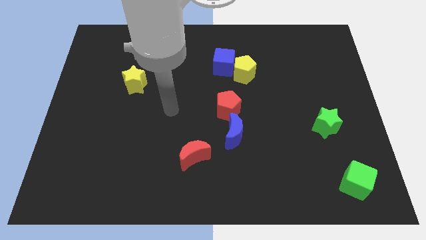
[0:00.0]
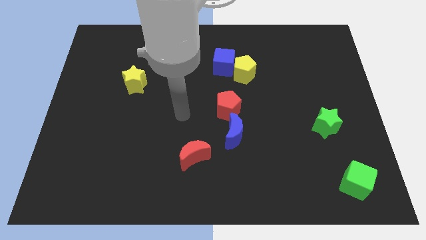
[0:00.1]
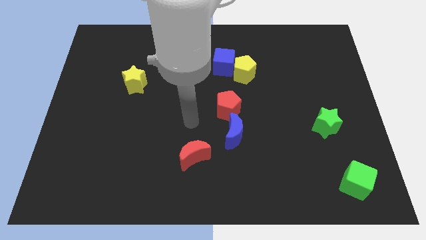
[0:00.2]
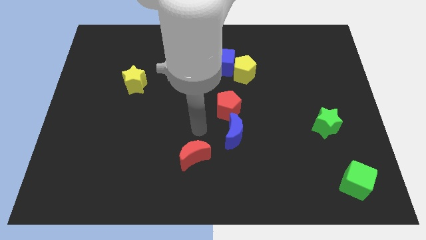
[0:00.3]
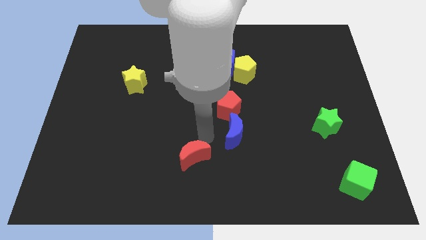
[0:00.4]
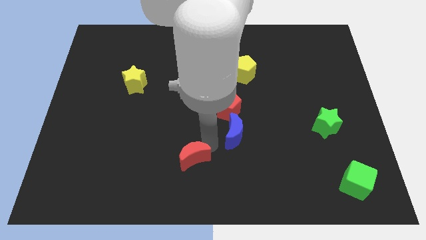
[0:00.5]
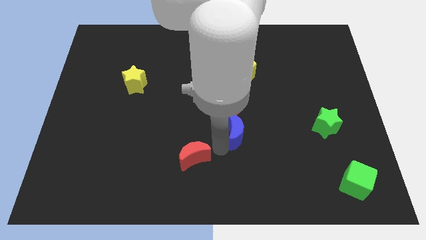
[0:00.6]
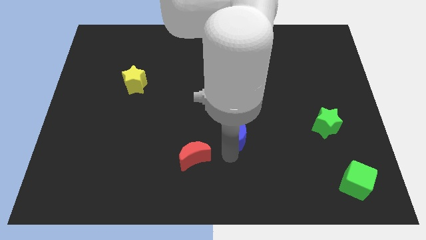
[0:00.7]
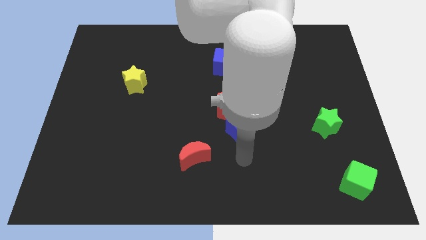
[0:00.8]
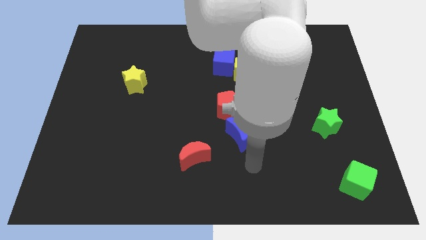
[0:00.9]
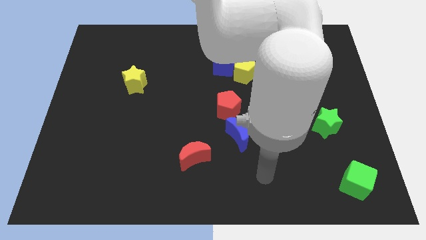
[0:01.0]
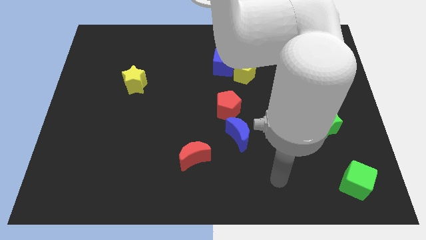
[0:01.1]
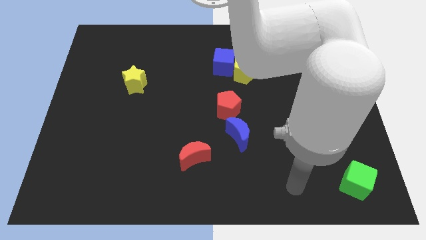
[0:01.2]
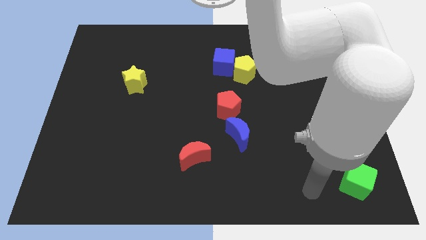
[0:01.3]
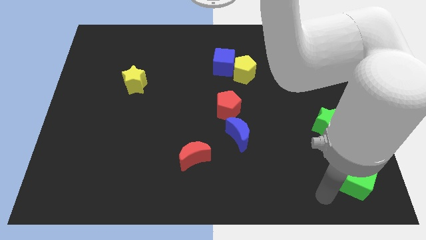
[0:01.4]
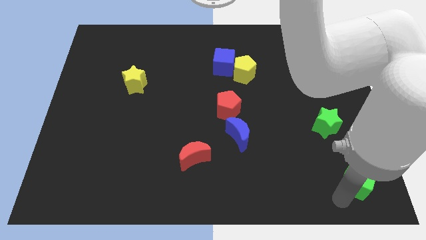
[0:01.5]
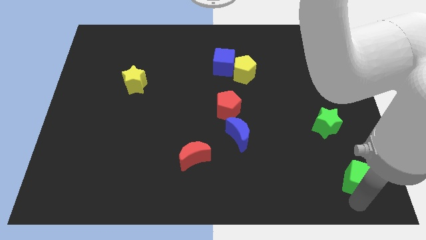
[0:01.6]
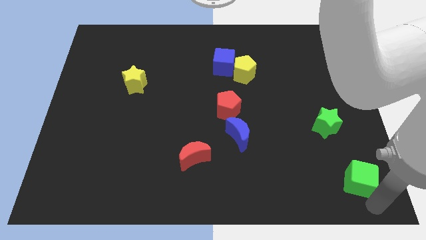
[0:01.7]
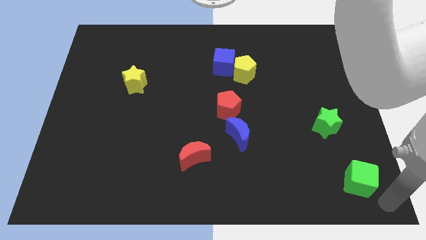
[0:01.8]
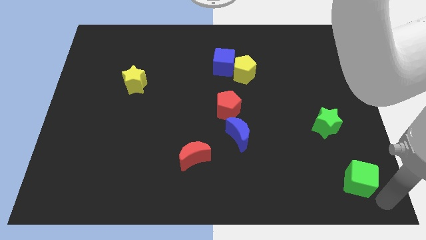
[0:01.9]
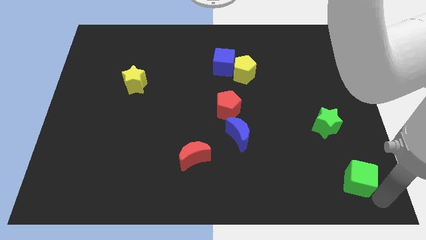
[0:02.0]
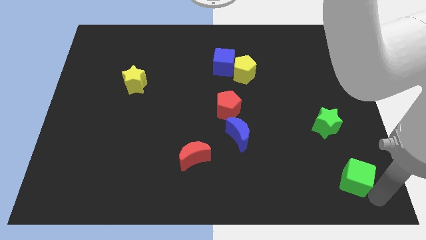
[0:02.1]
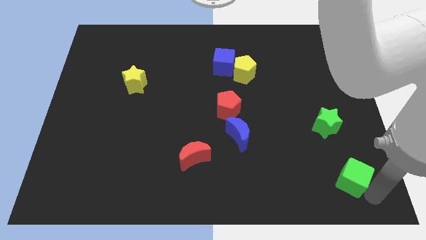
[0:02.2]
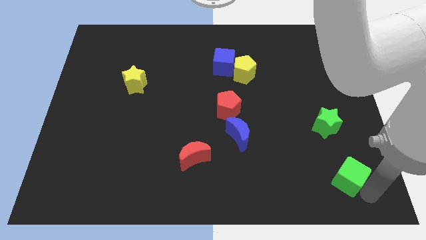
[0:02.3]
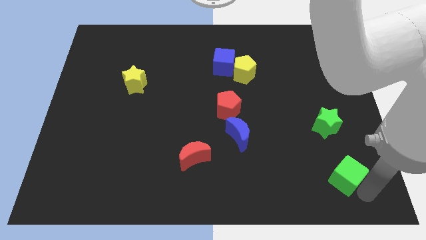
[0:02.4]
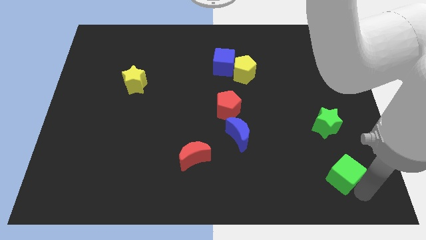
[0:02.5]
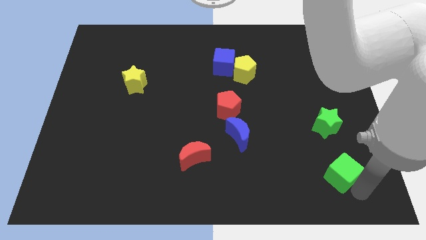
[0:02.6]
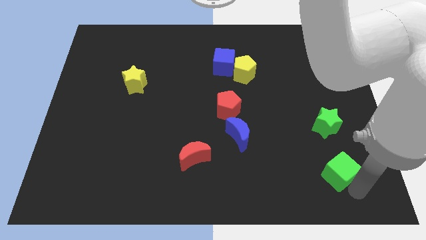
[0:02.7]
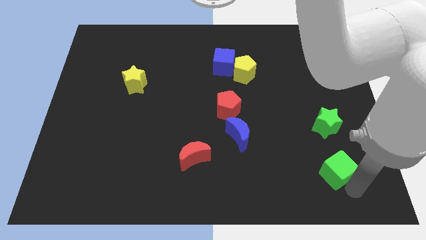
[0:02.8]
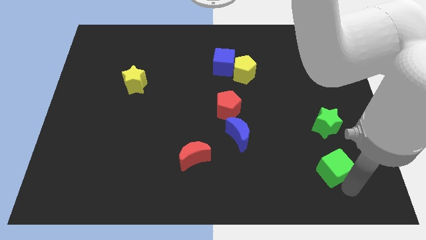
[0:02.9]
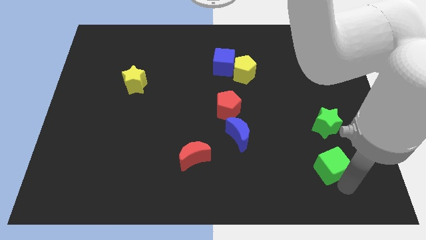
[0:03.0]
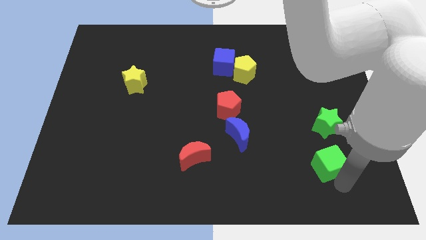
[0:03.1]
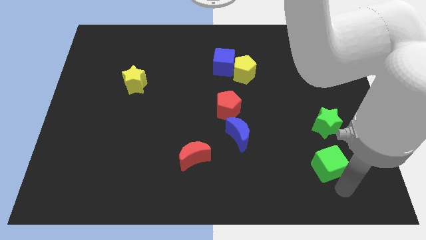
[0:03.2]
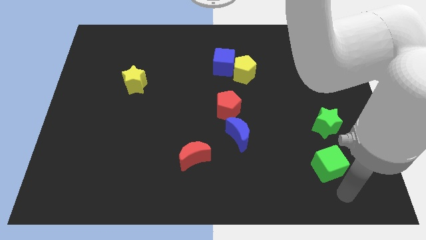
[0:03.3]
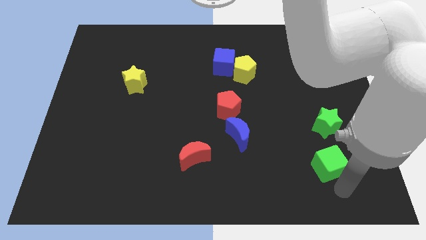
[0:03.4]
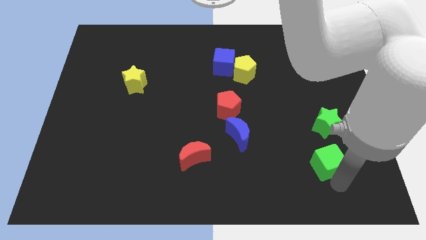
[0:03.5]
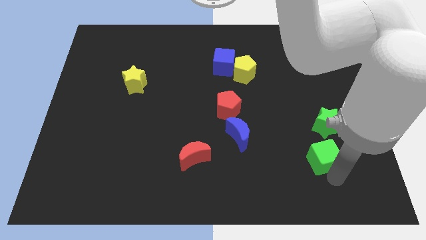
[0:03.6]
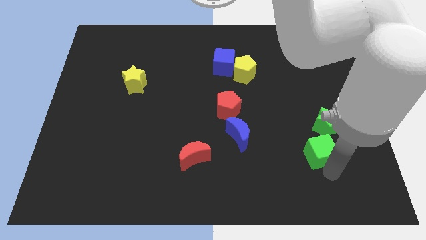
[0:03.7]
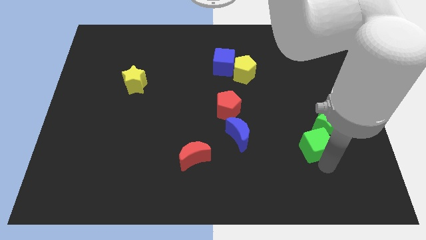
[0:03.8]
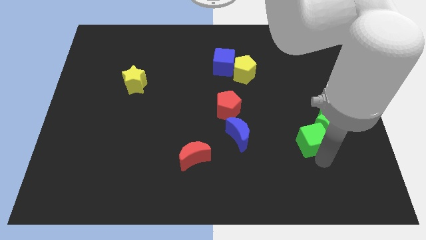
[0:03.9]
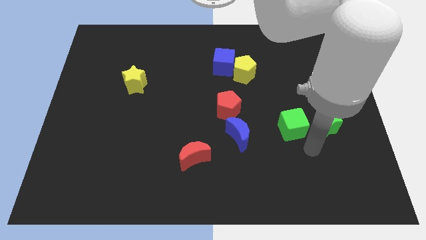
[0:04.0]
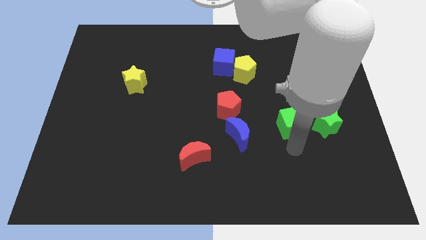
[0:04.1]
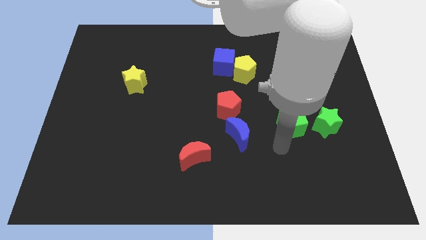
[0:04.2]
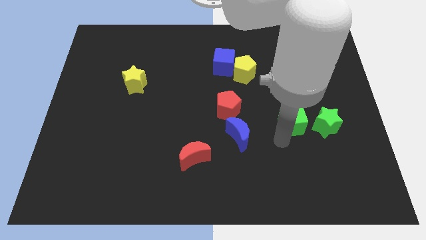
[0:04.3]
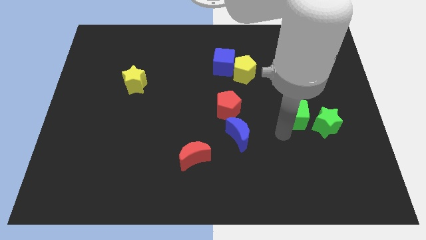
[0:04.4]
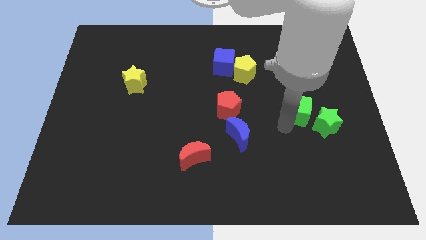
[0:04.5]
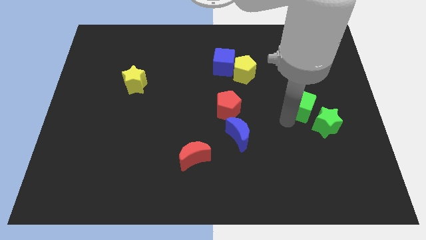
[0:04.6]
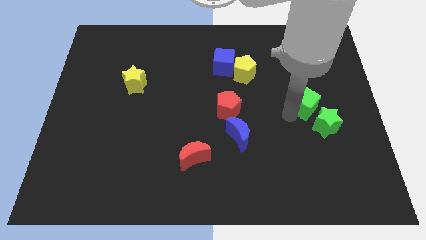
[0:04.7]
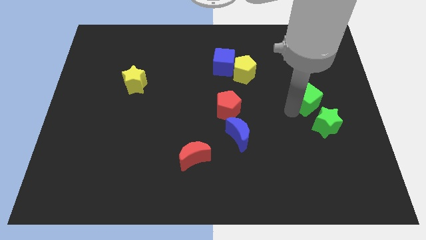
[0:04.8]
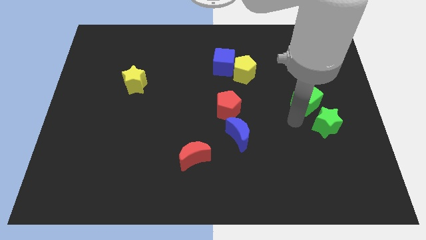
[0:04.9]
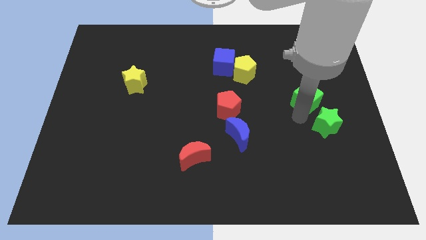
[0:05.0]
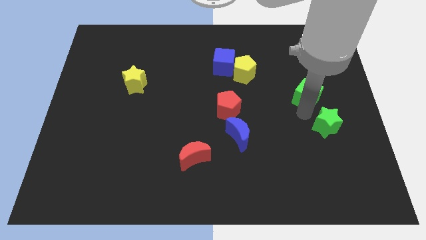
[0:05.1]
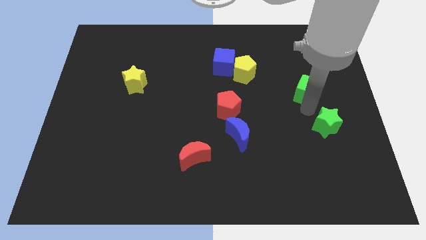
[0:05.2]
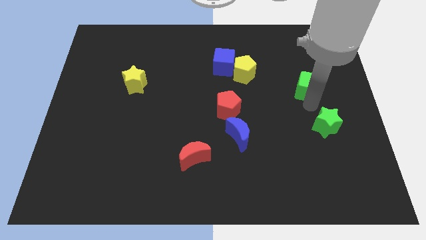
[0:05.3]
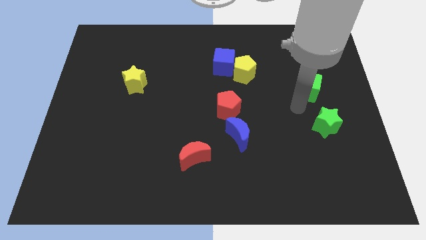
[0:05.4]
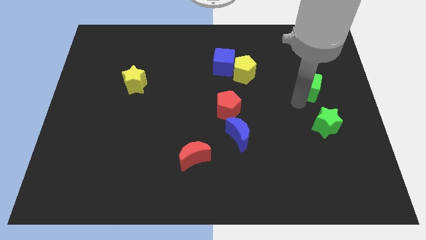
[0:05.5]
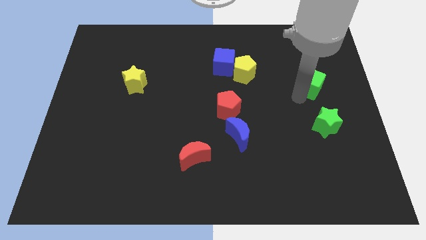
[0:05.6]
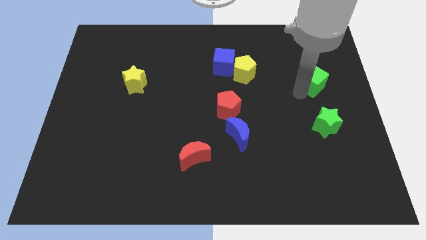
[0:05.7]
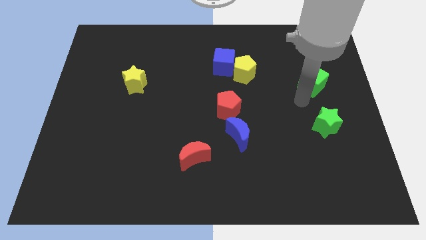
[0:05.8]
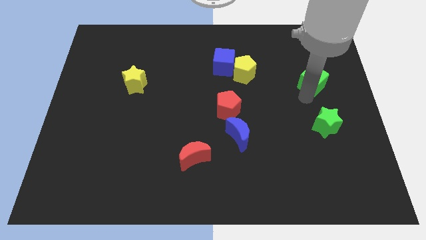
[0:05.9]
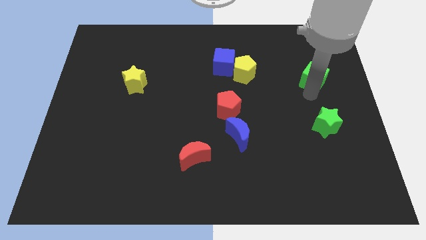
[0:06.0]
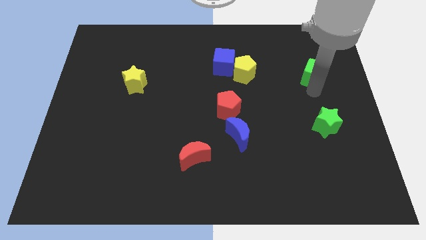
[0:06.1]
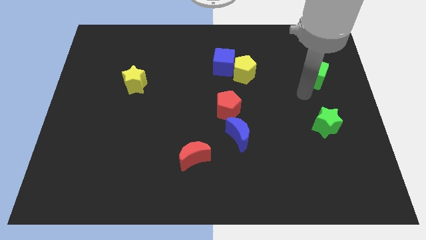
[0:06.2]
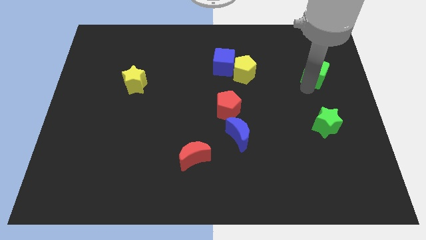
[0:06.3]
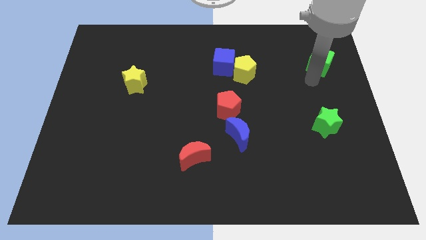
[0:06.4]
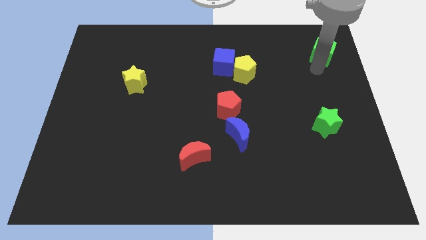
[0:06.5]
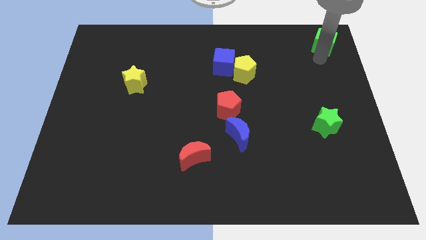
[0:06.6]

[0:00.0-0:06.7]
push the green cube to the top right corner

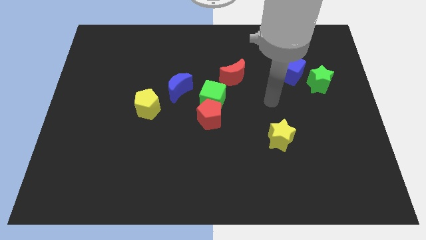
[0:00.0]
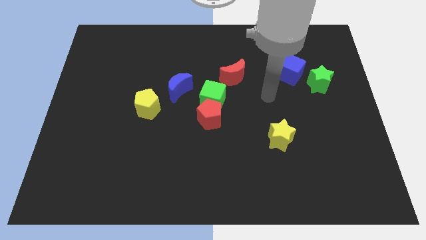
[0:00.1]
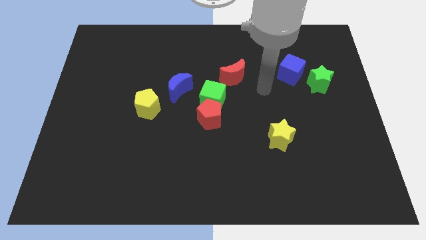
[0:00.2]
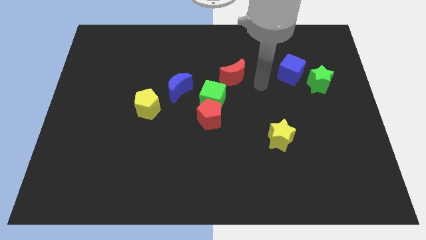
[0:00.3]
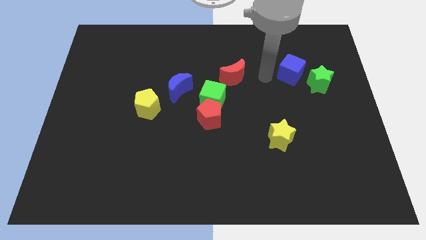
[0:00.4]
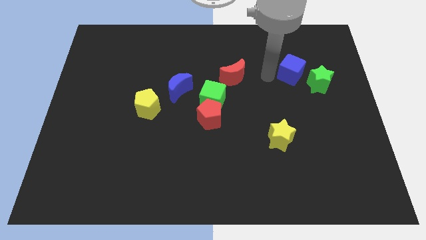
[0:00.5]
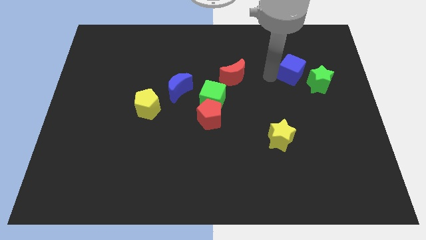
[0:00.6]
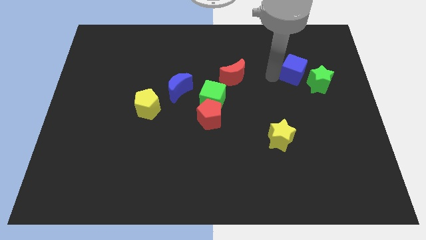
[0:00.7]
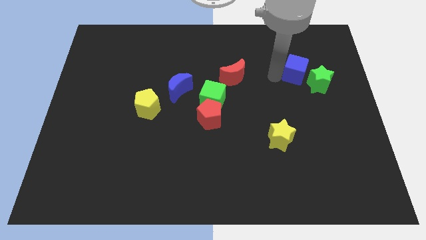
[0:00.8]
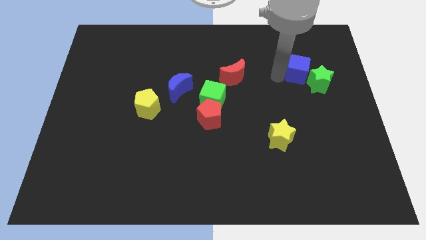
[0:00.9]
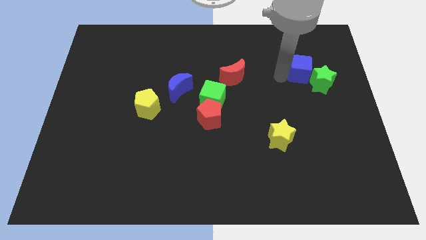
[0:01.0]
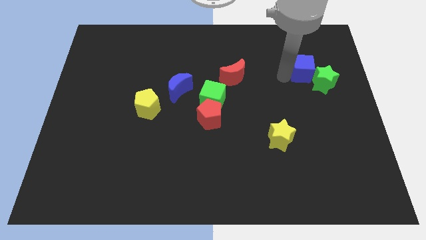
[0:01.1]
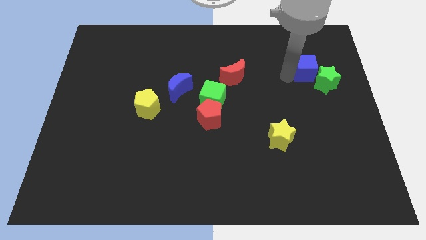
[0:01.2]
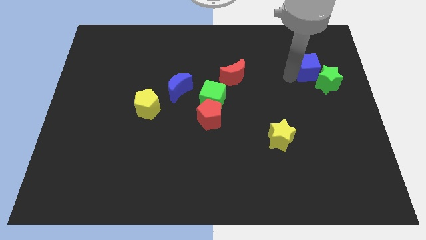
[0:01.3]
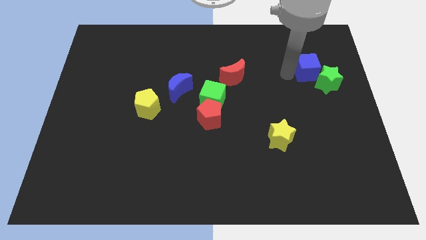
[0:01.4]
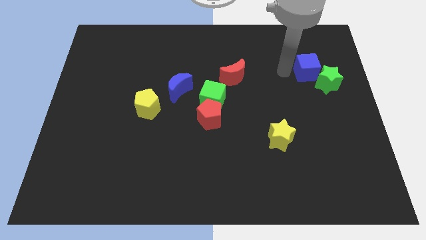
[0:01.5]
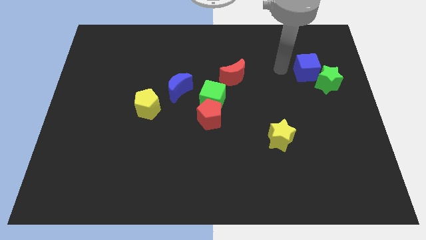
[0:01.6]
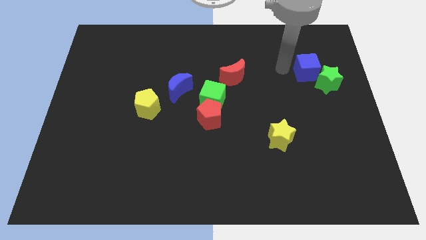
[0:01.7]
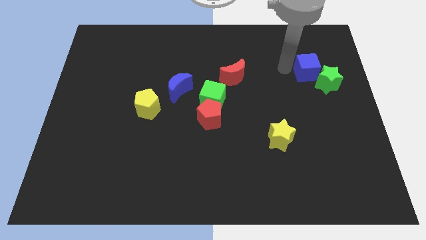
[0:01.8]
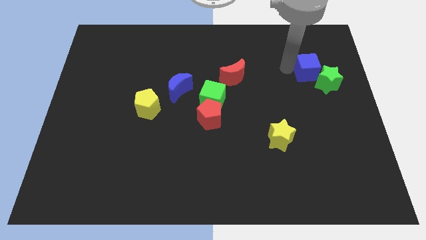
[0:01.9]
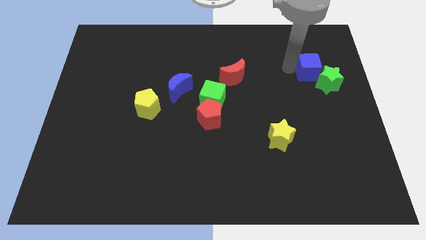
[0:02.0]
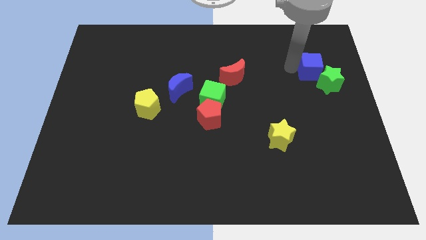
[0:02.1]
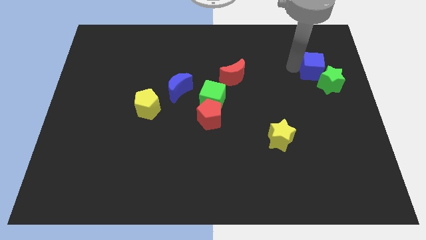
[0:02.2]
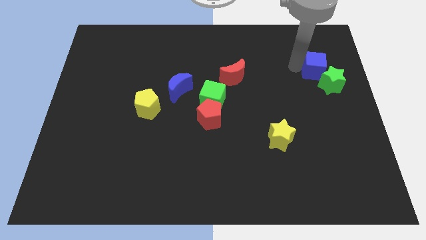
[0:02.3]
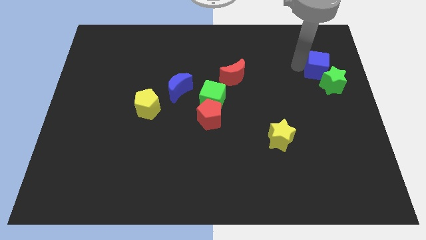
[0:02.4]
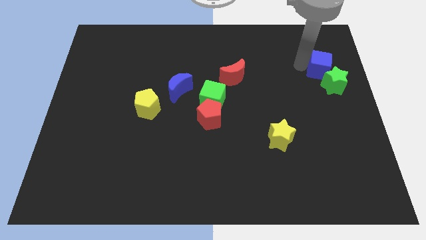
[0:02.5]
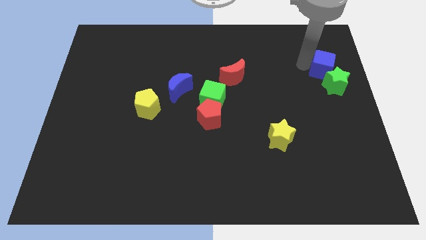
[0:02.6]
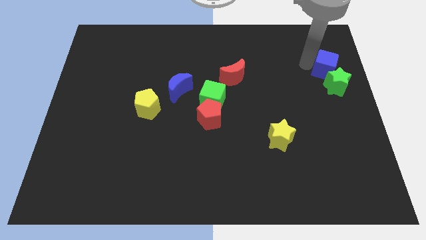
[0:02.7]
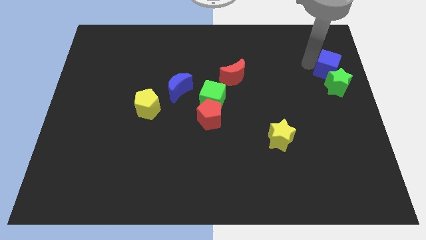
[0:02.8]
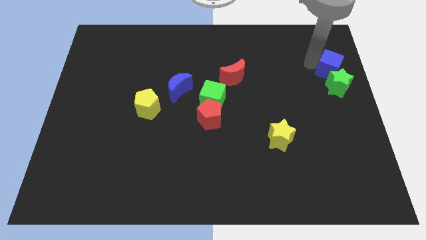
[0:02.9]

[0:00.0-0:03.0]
push the blue cube to the right side
